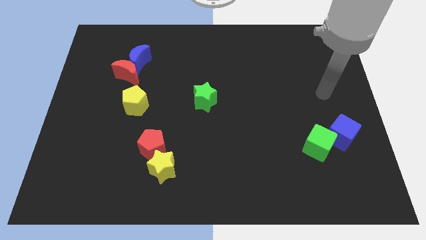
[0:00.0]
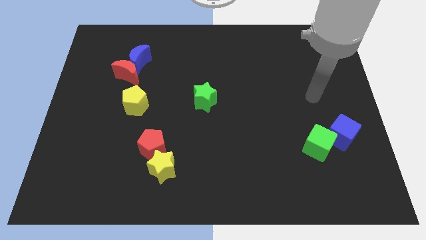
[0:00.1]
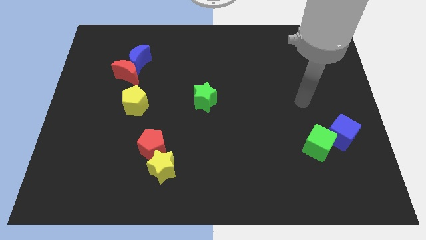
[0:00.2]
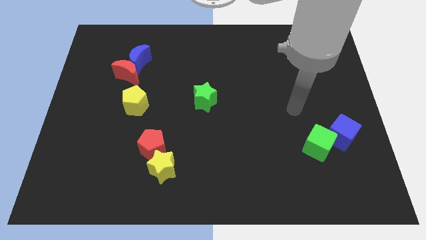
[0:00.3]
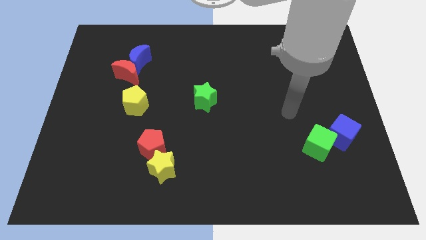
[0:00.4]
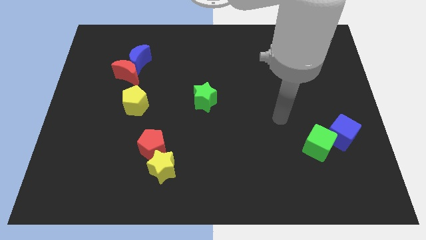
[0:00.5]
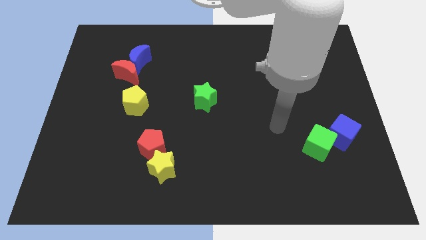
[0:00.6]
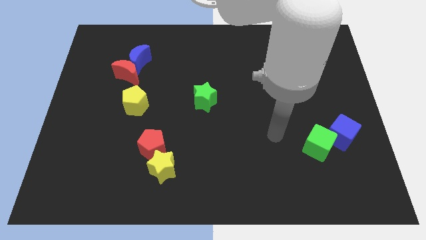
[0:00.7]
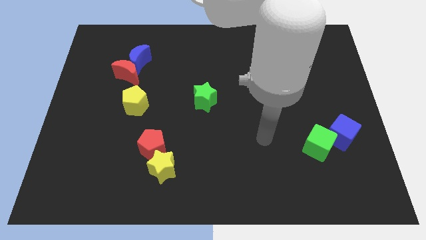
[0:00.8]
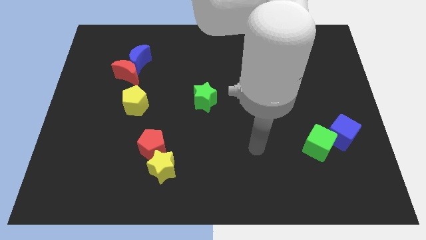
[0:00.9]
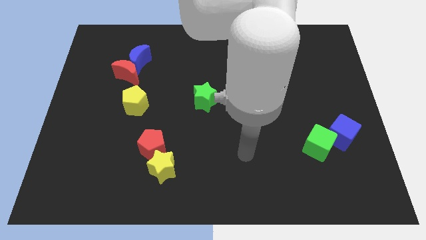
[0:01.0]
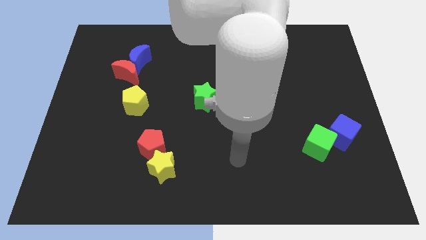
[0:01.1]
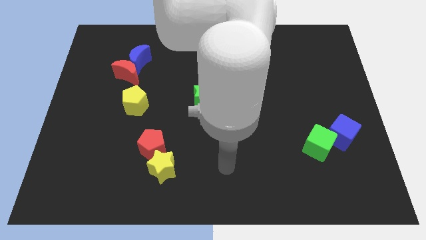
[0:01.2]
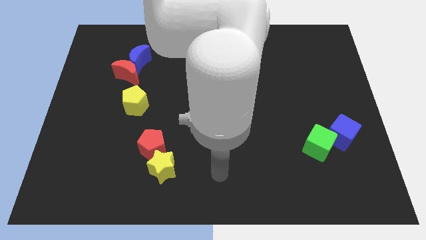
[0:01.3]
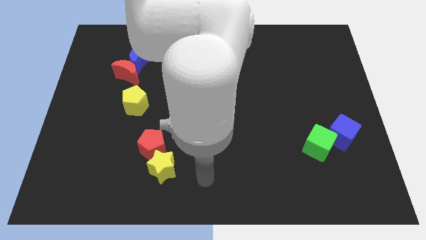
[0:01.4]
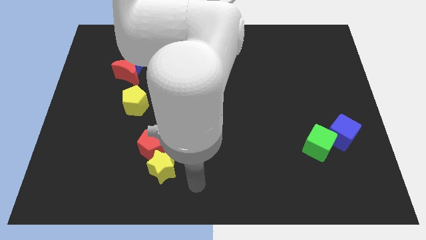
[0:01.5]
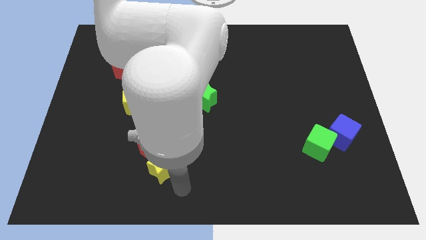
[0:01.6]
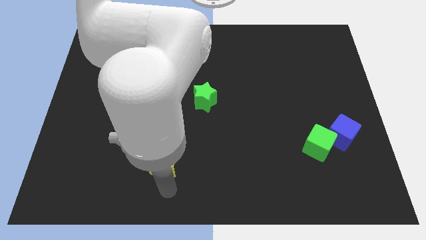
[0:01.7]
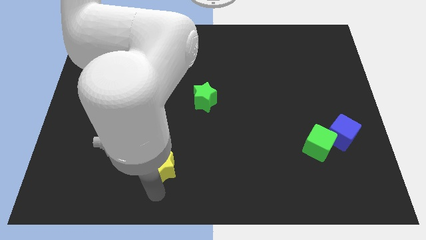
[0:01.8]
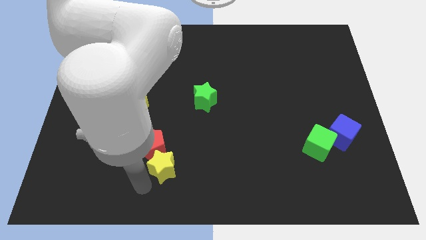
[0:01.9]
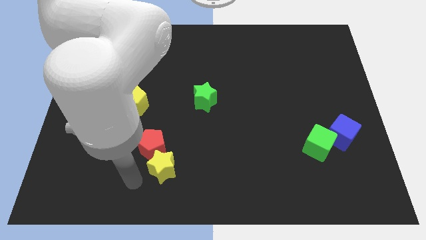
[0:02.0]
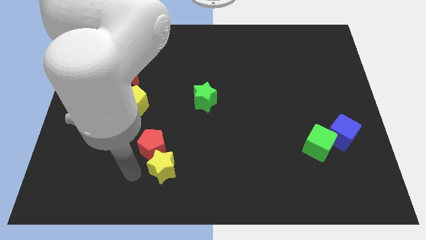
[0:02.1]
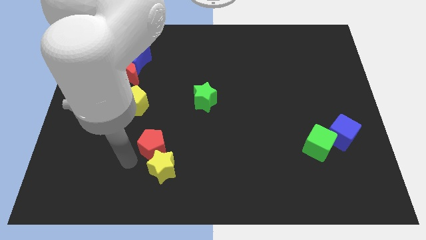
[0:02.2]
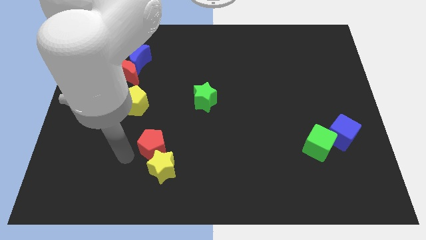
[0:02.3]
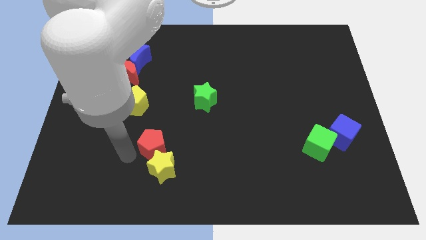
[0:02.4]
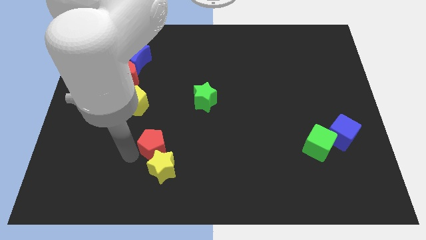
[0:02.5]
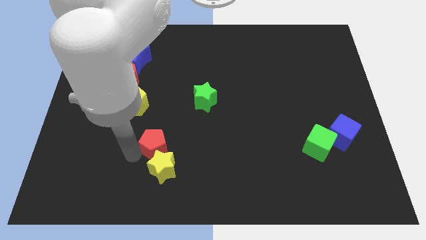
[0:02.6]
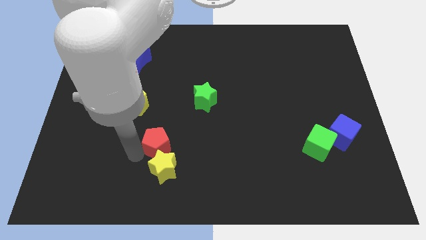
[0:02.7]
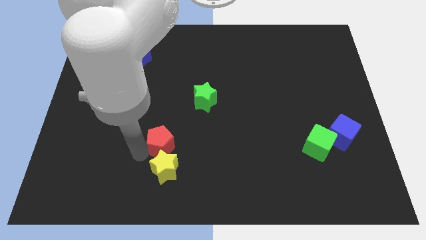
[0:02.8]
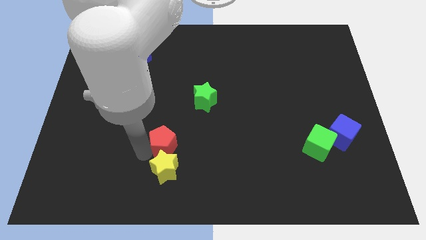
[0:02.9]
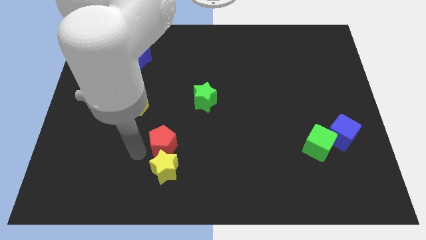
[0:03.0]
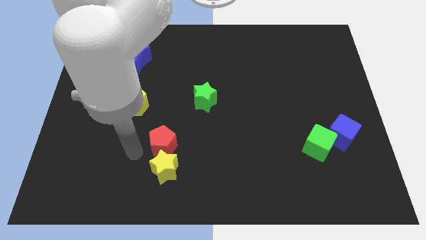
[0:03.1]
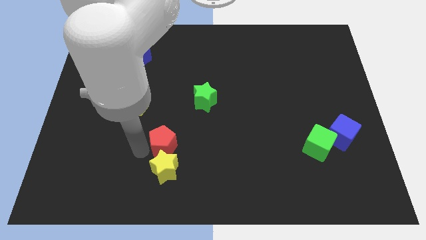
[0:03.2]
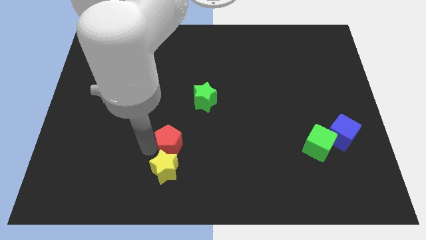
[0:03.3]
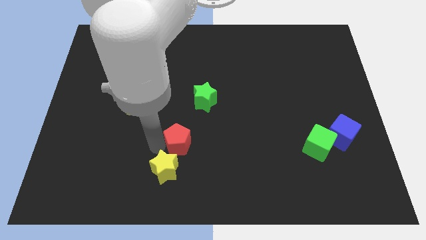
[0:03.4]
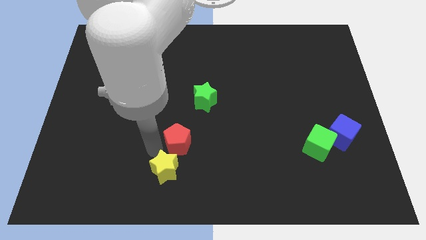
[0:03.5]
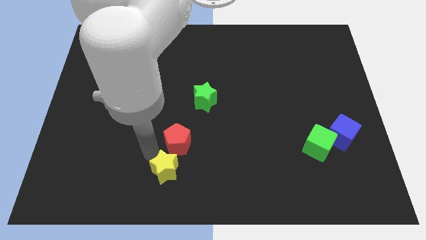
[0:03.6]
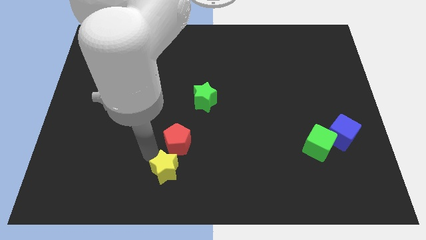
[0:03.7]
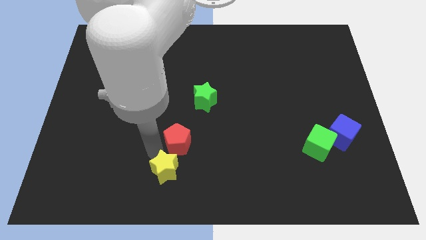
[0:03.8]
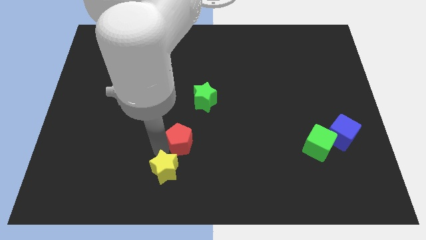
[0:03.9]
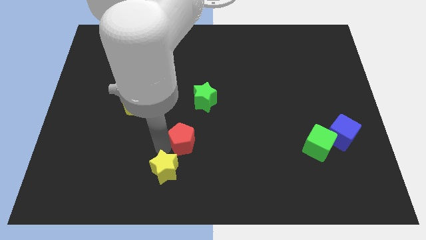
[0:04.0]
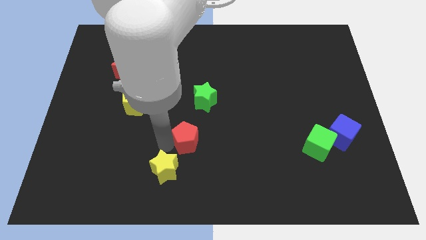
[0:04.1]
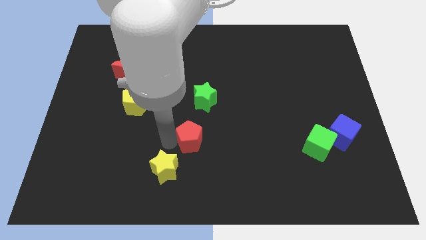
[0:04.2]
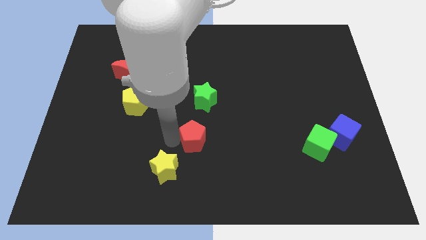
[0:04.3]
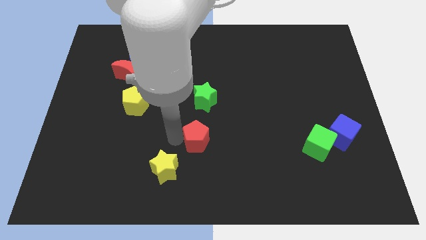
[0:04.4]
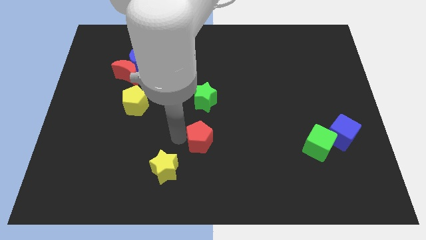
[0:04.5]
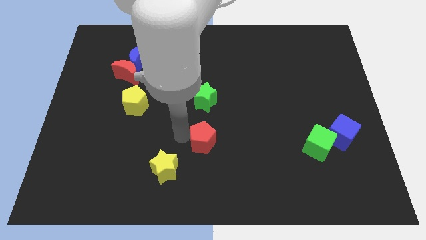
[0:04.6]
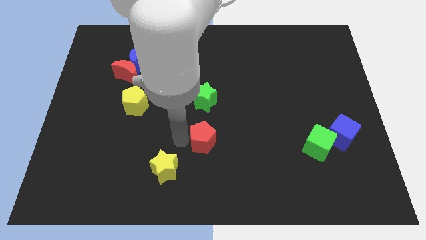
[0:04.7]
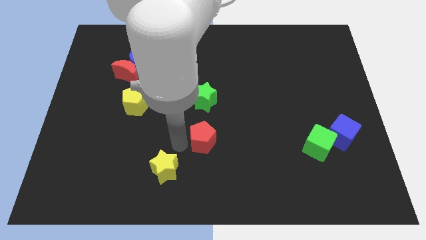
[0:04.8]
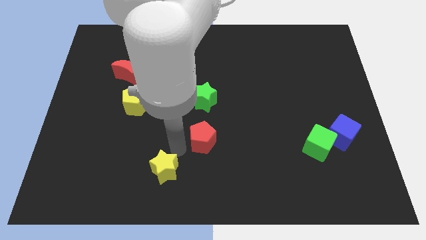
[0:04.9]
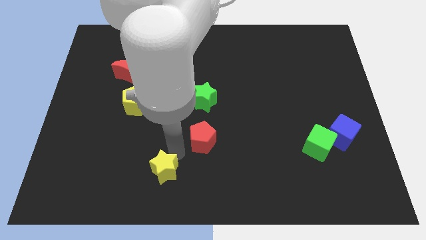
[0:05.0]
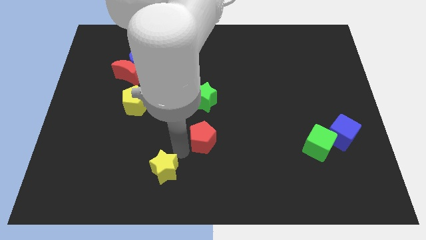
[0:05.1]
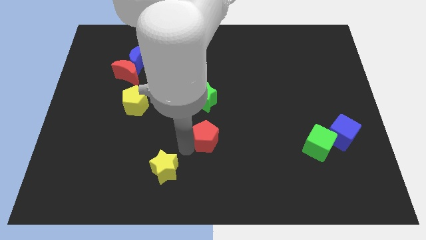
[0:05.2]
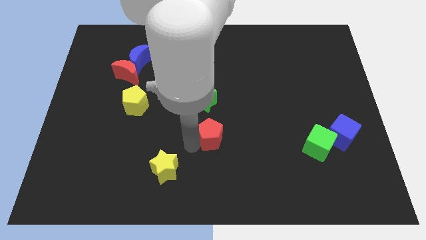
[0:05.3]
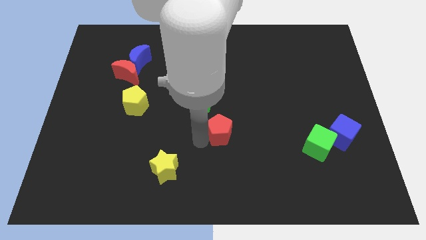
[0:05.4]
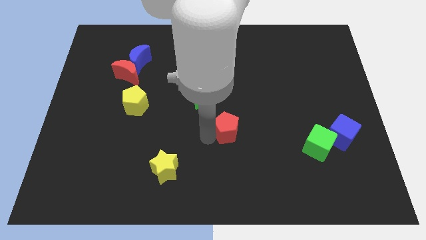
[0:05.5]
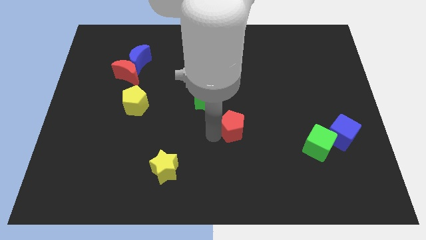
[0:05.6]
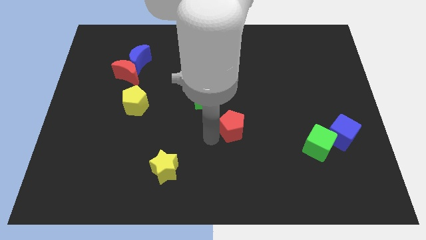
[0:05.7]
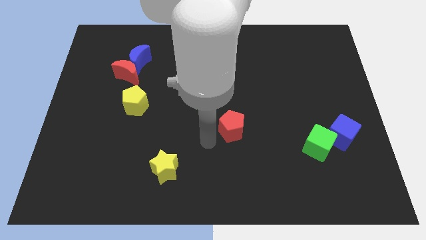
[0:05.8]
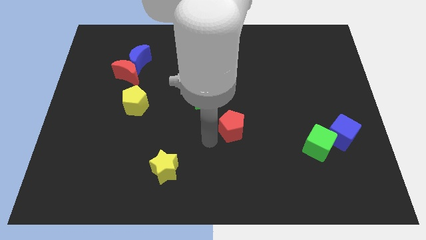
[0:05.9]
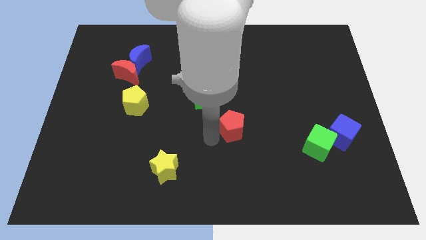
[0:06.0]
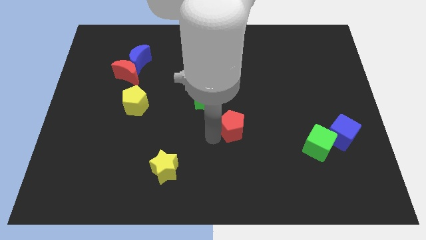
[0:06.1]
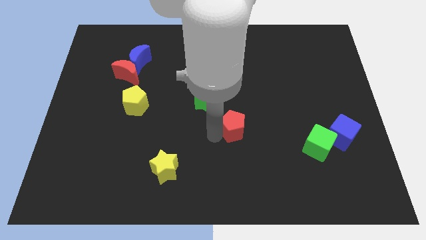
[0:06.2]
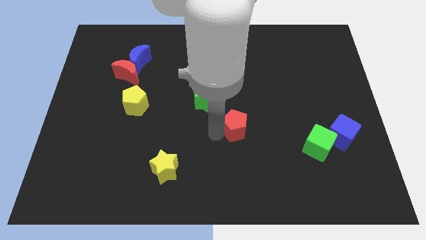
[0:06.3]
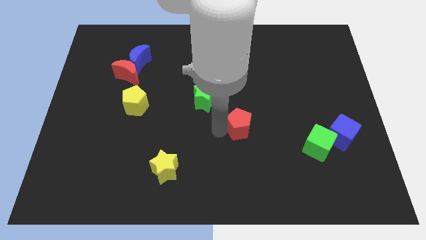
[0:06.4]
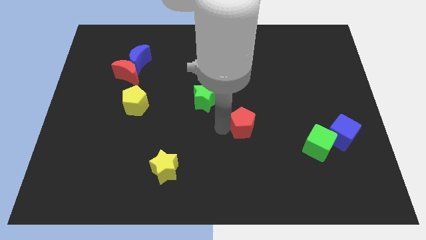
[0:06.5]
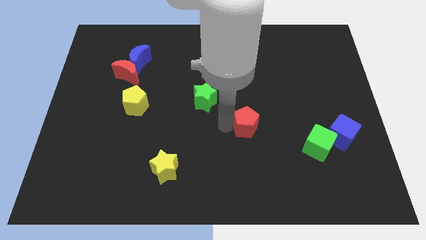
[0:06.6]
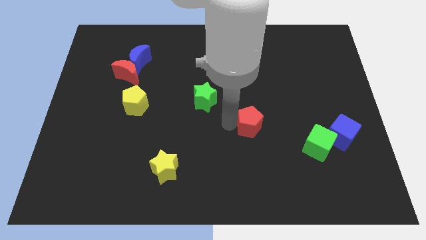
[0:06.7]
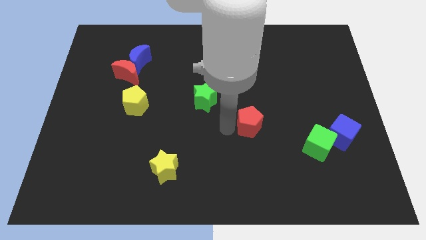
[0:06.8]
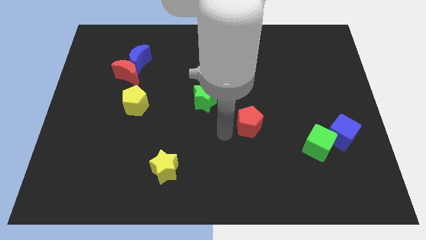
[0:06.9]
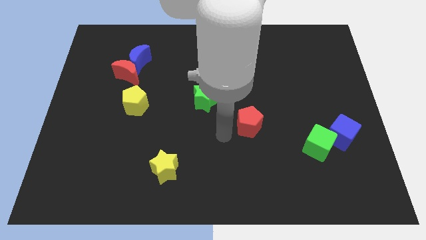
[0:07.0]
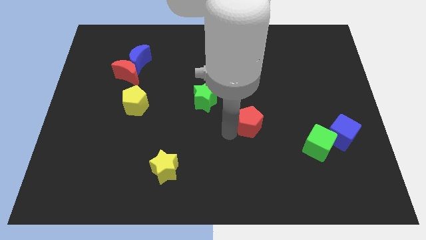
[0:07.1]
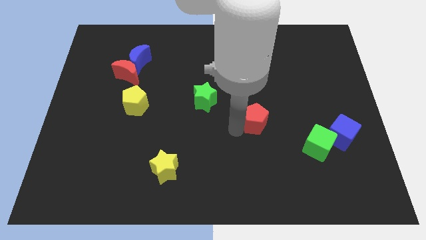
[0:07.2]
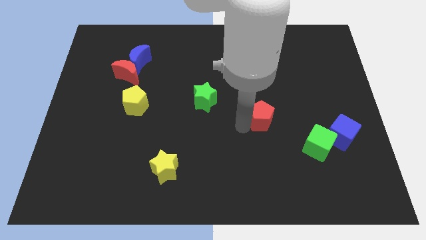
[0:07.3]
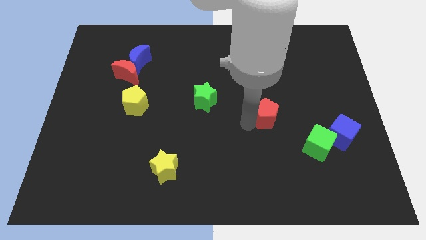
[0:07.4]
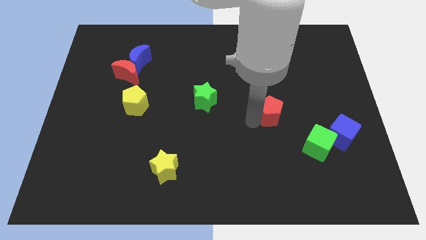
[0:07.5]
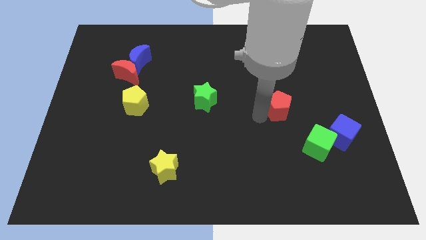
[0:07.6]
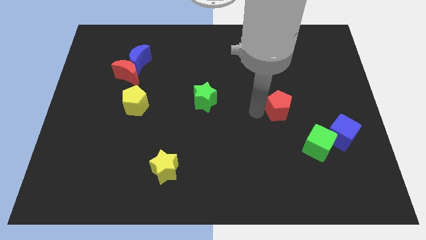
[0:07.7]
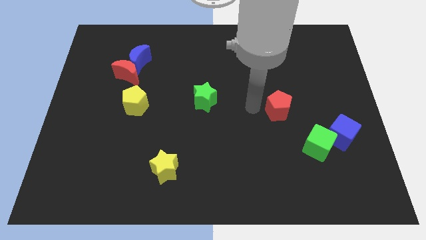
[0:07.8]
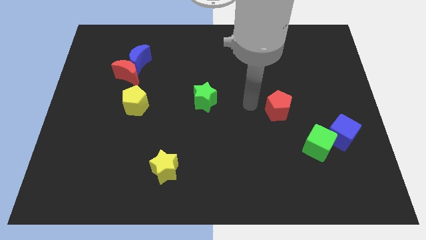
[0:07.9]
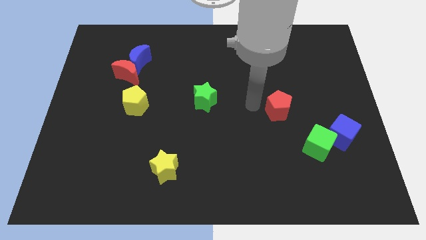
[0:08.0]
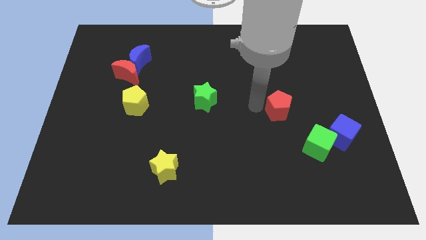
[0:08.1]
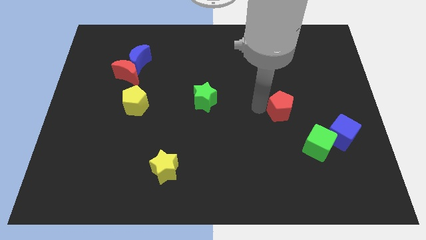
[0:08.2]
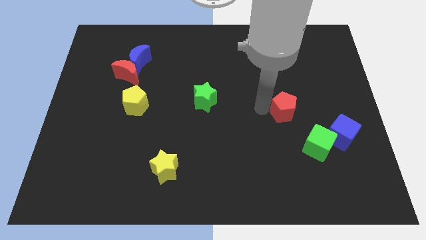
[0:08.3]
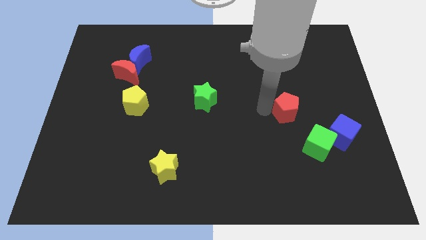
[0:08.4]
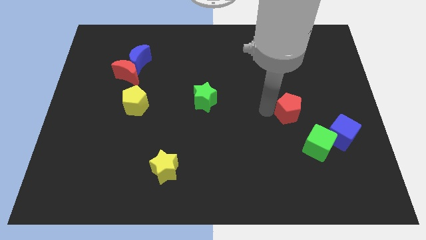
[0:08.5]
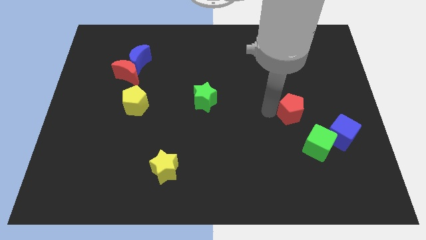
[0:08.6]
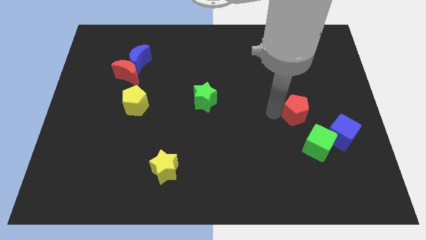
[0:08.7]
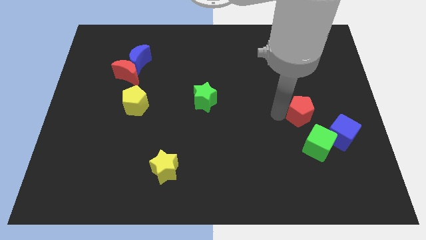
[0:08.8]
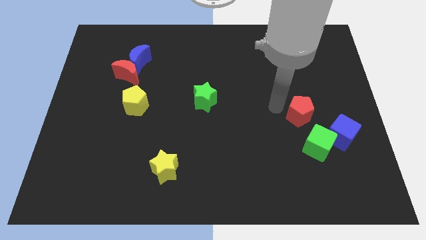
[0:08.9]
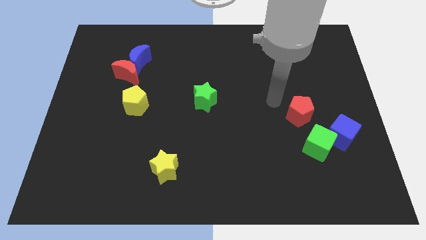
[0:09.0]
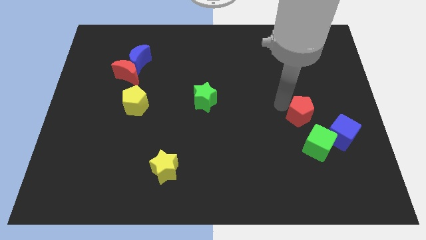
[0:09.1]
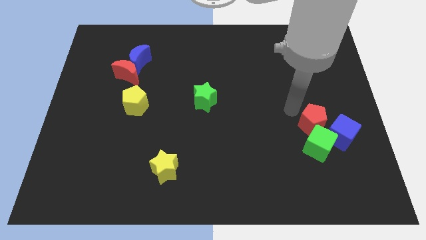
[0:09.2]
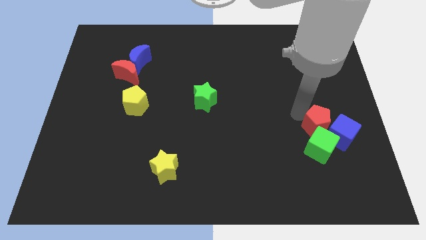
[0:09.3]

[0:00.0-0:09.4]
put the red pentagon to the blue cube
